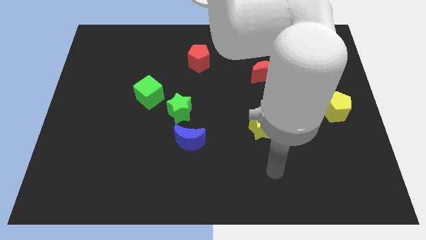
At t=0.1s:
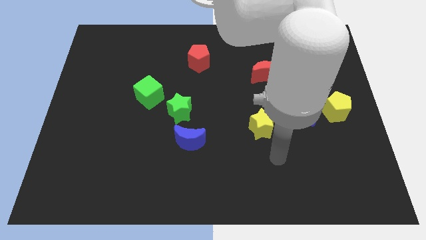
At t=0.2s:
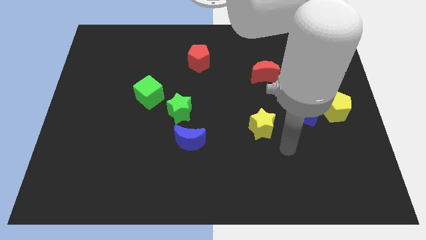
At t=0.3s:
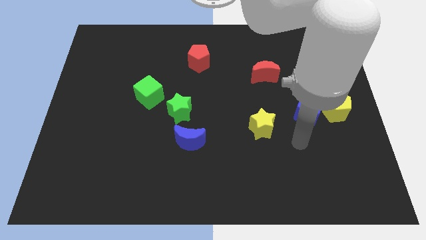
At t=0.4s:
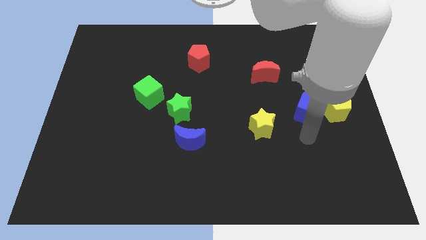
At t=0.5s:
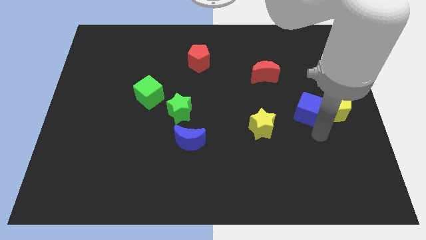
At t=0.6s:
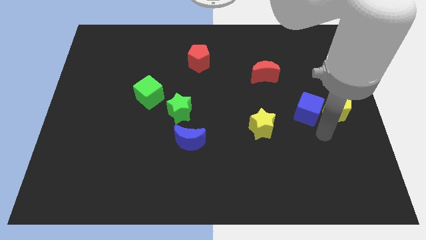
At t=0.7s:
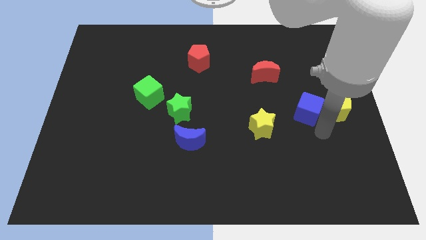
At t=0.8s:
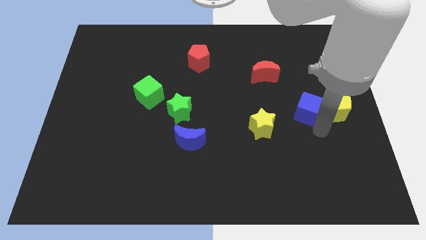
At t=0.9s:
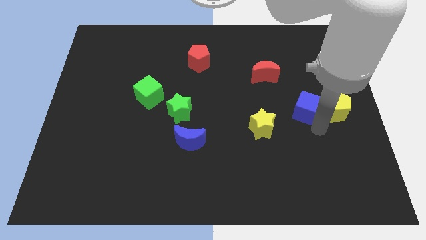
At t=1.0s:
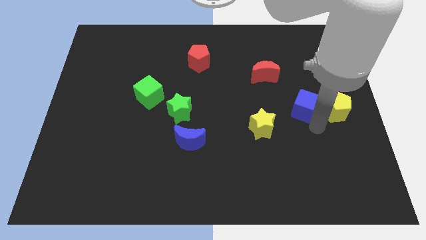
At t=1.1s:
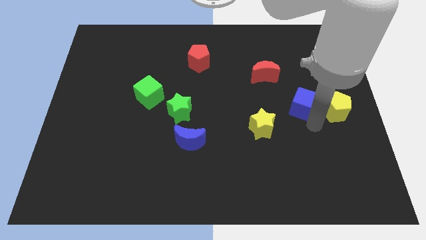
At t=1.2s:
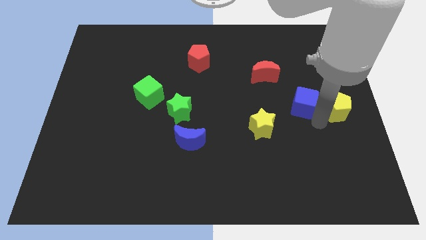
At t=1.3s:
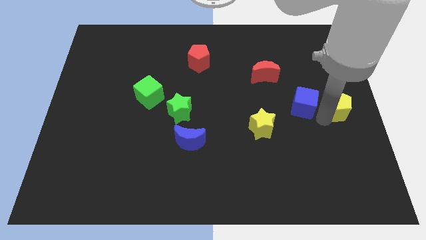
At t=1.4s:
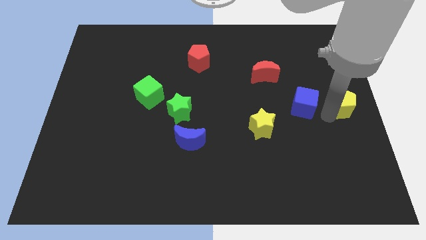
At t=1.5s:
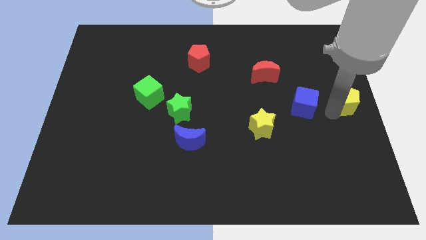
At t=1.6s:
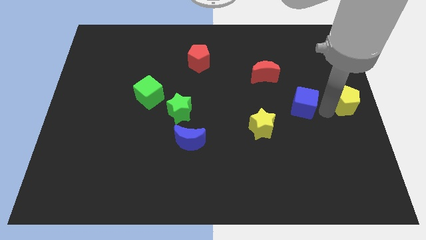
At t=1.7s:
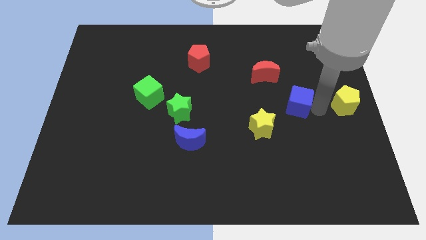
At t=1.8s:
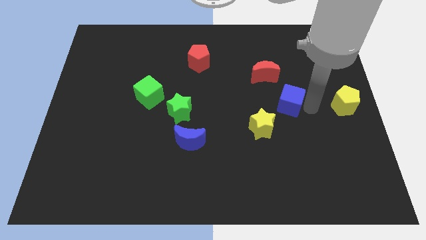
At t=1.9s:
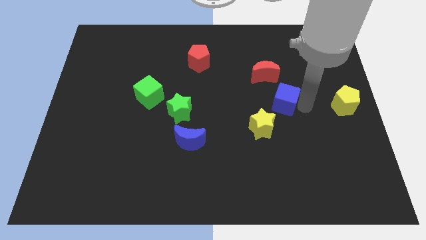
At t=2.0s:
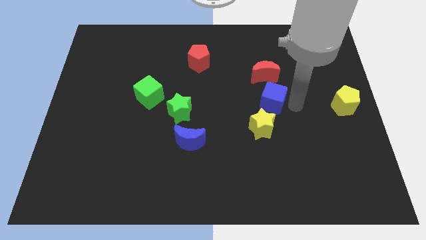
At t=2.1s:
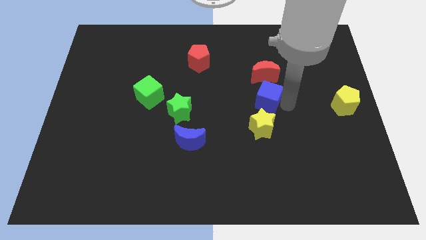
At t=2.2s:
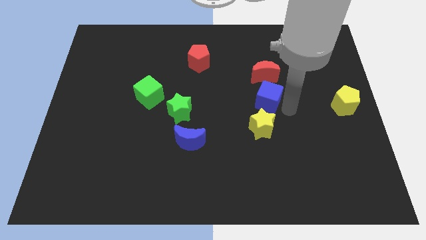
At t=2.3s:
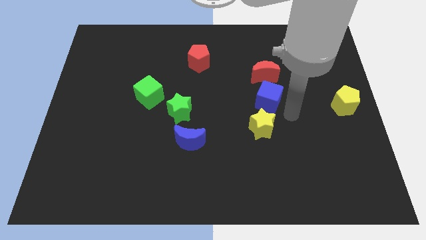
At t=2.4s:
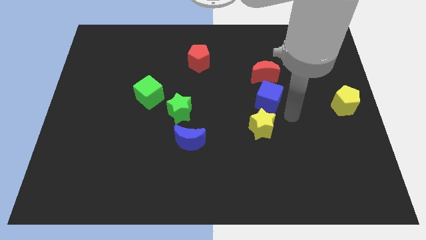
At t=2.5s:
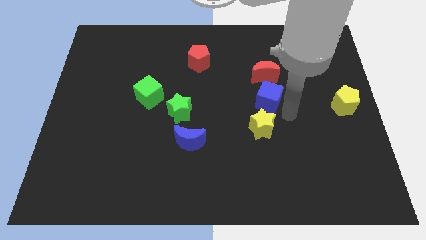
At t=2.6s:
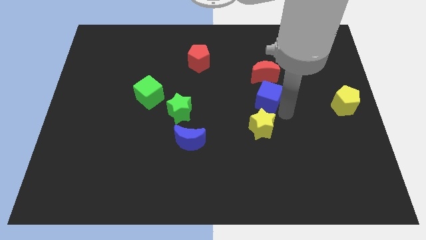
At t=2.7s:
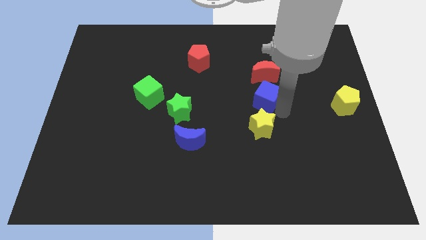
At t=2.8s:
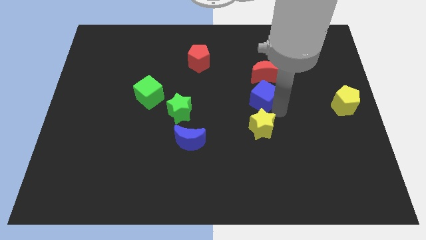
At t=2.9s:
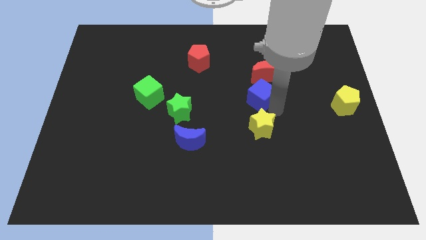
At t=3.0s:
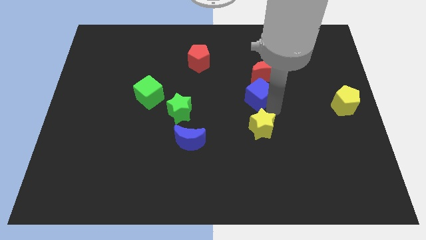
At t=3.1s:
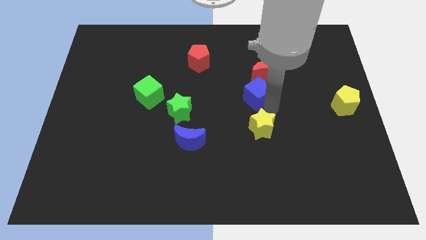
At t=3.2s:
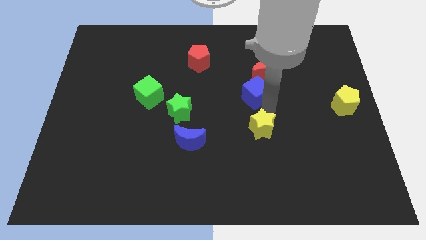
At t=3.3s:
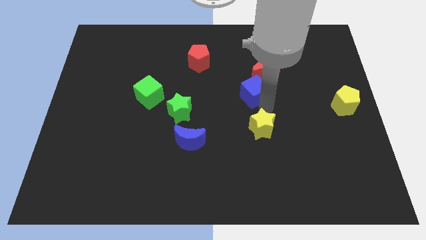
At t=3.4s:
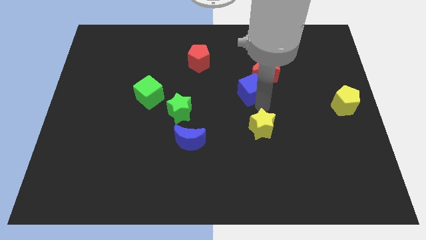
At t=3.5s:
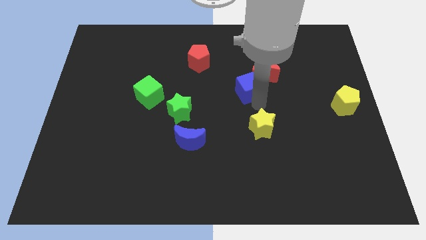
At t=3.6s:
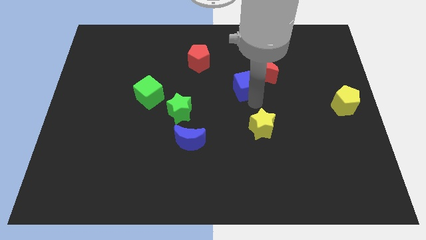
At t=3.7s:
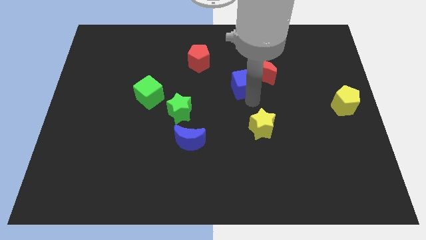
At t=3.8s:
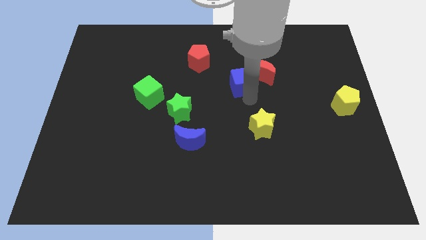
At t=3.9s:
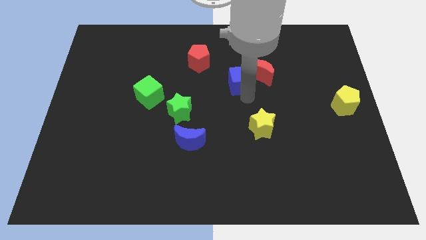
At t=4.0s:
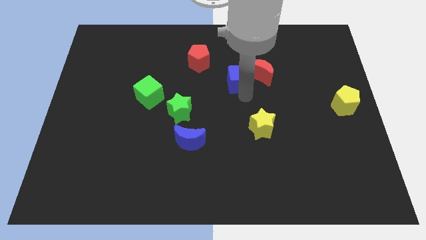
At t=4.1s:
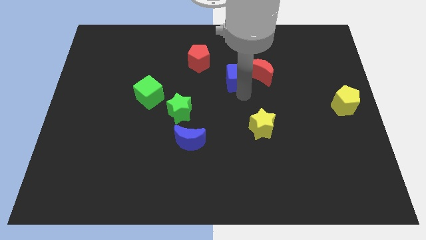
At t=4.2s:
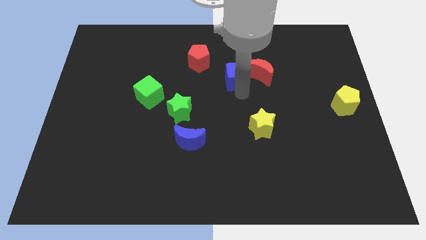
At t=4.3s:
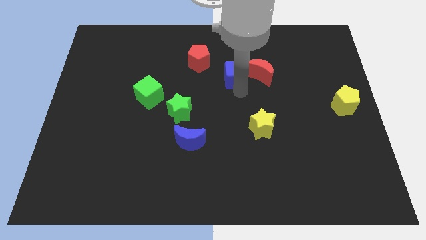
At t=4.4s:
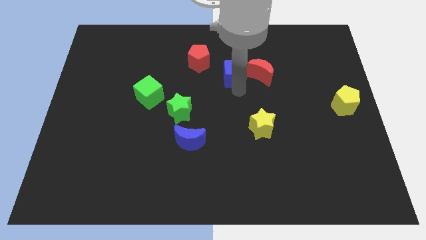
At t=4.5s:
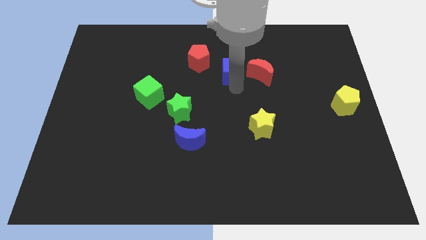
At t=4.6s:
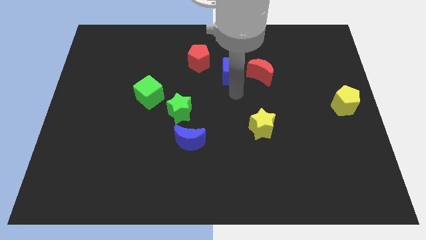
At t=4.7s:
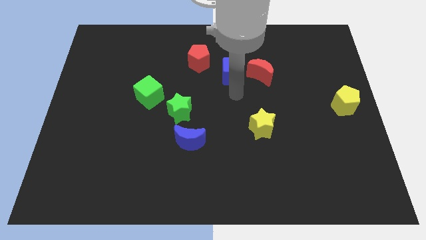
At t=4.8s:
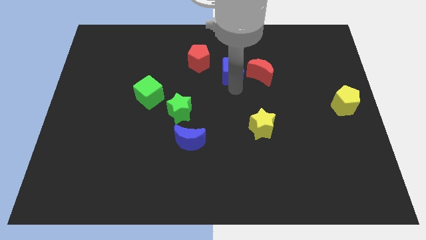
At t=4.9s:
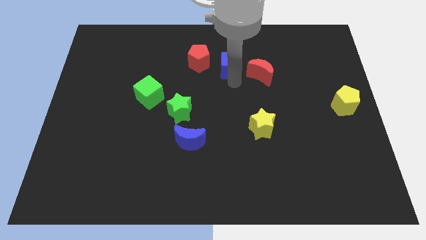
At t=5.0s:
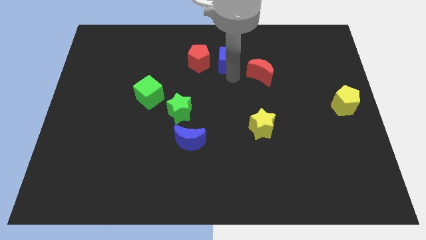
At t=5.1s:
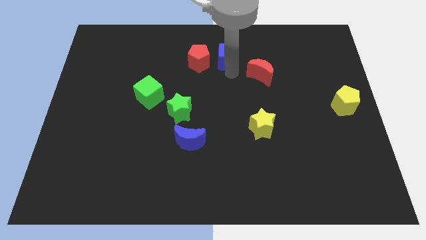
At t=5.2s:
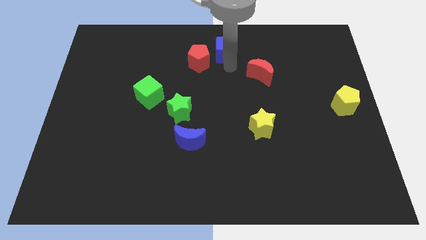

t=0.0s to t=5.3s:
put the blue cube to the top

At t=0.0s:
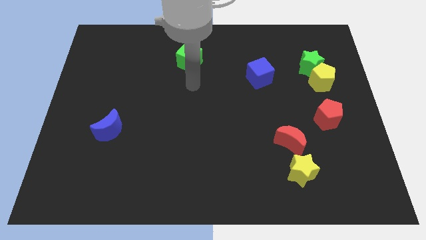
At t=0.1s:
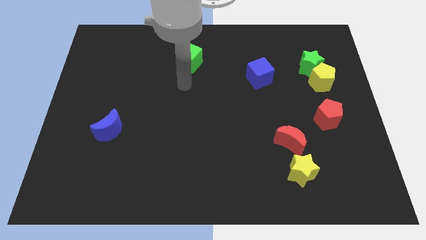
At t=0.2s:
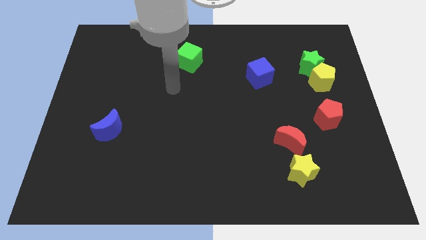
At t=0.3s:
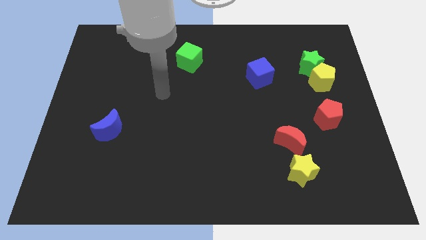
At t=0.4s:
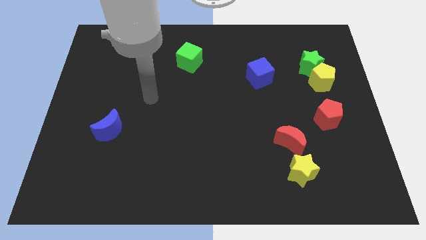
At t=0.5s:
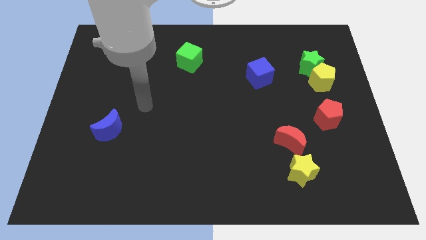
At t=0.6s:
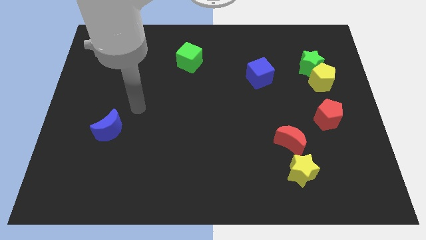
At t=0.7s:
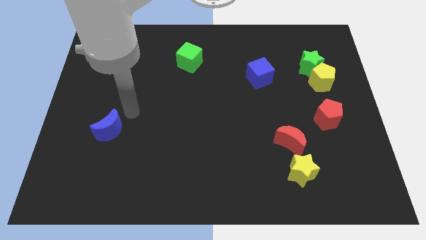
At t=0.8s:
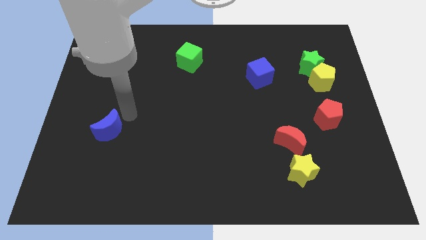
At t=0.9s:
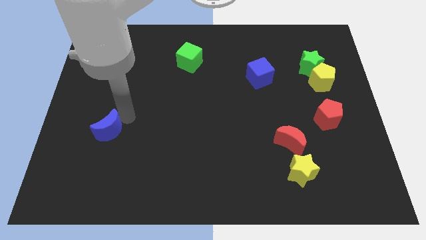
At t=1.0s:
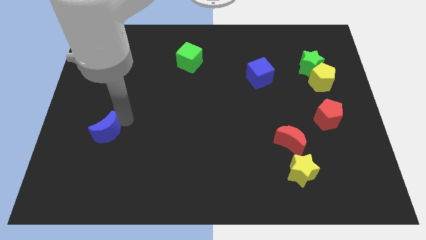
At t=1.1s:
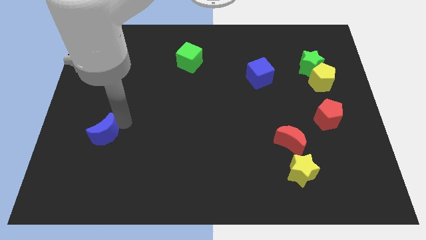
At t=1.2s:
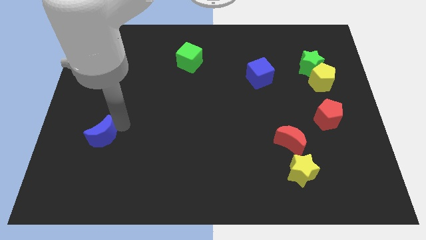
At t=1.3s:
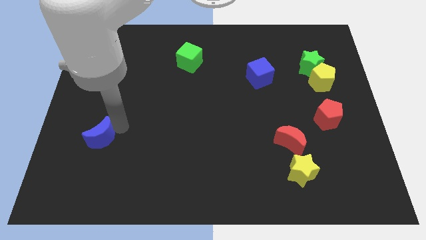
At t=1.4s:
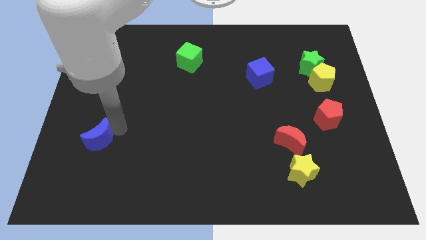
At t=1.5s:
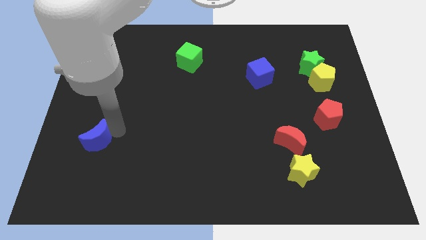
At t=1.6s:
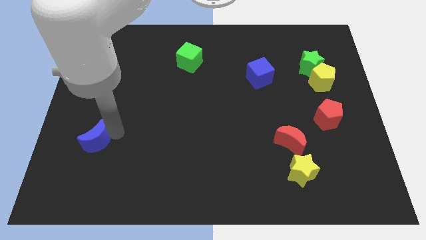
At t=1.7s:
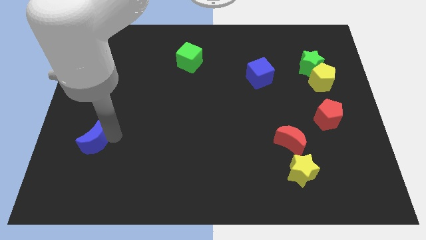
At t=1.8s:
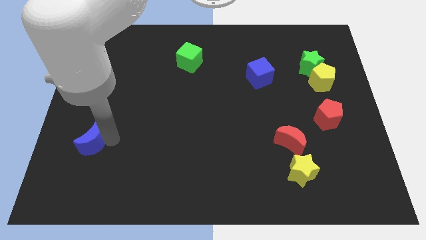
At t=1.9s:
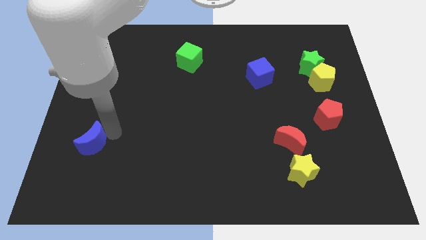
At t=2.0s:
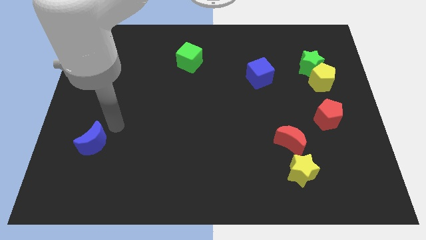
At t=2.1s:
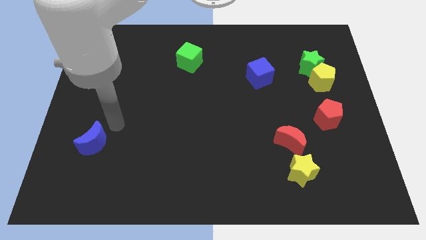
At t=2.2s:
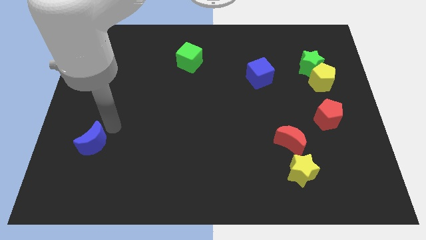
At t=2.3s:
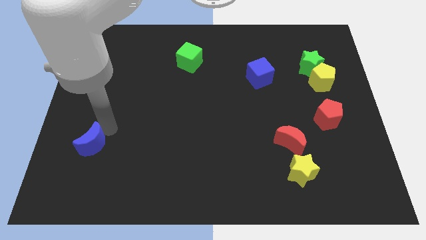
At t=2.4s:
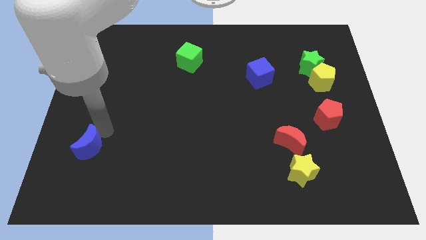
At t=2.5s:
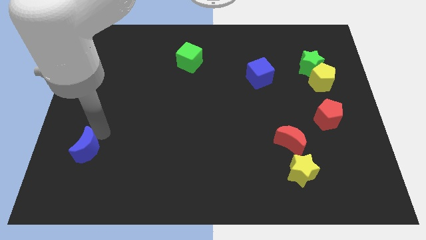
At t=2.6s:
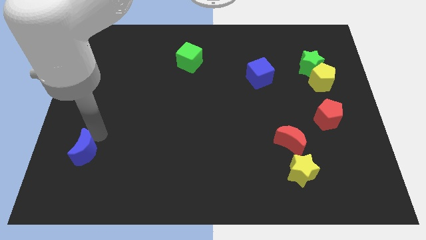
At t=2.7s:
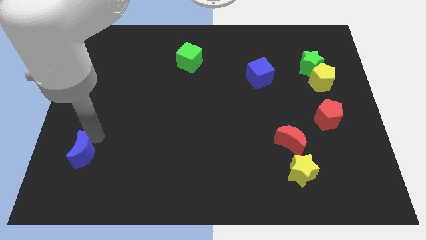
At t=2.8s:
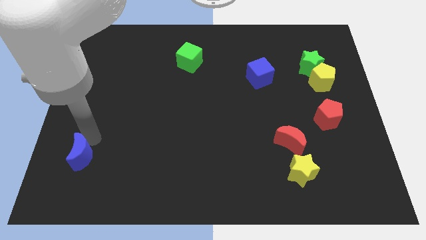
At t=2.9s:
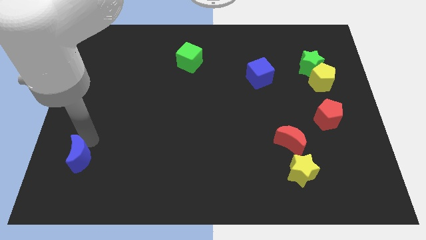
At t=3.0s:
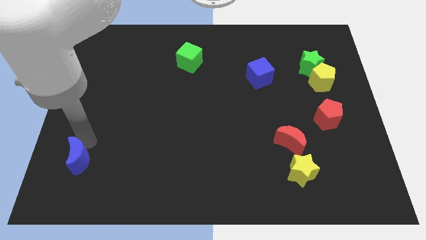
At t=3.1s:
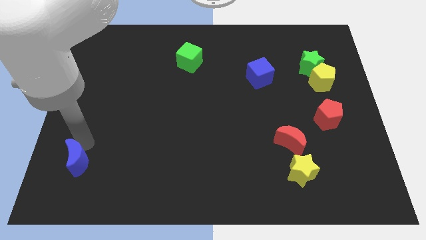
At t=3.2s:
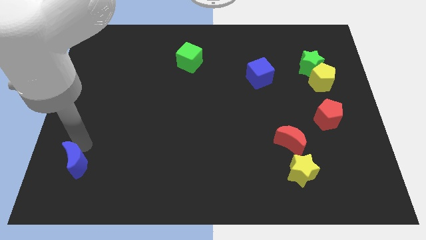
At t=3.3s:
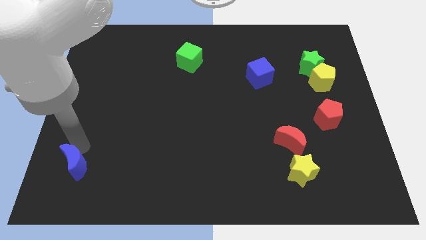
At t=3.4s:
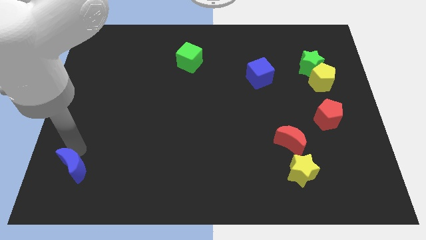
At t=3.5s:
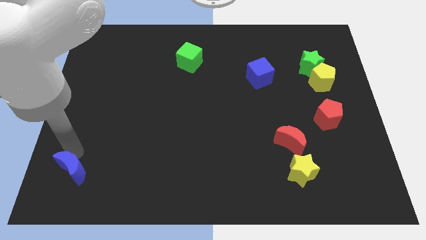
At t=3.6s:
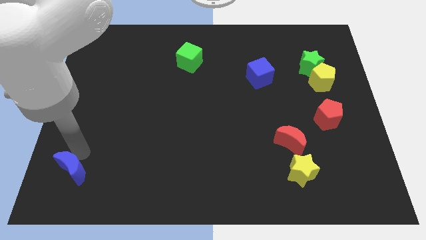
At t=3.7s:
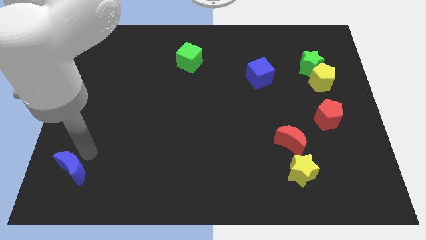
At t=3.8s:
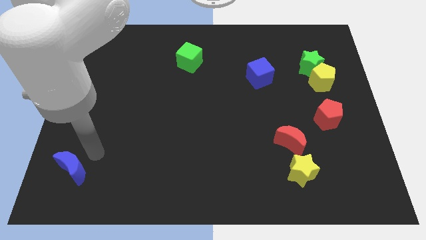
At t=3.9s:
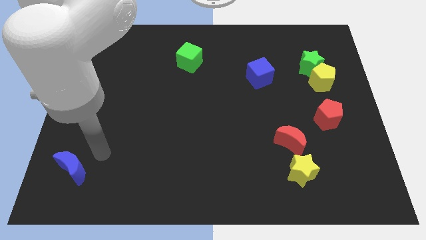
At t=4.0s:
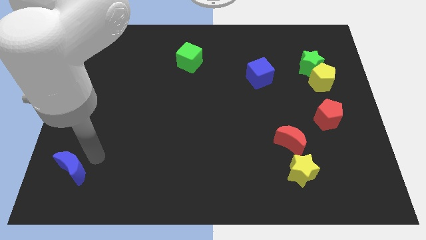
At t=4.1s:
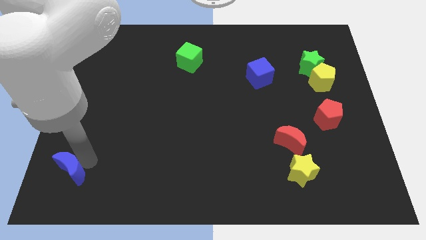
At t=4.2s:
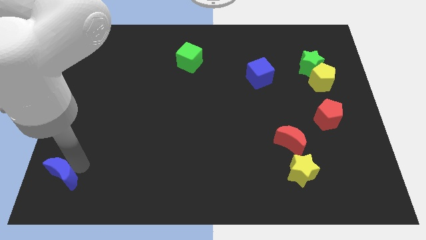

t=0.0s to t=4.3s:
slide the blue moon to the lower left corner
